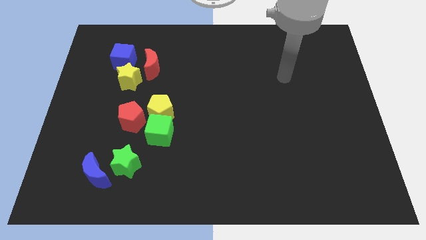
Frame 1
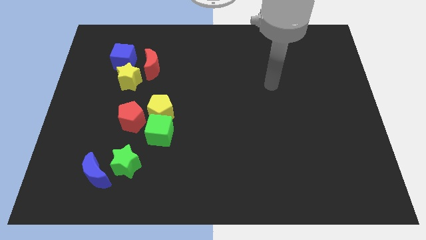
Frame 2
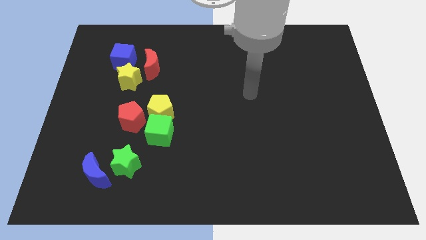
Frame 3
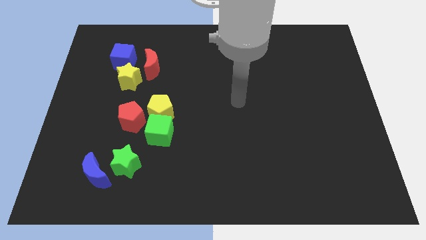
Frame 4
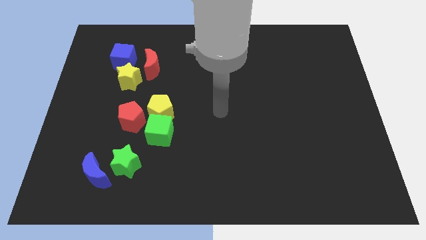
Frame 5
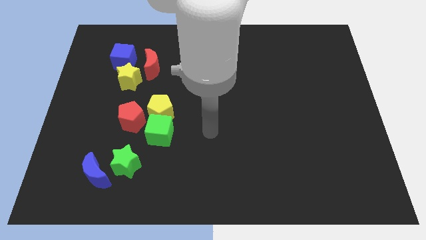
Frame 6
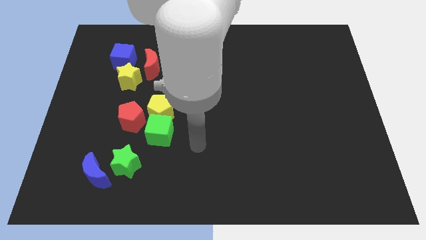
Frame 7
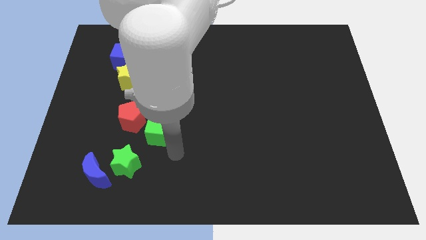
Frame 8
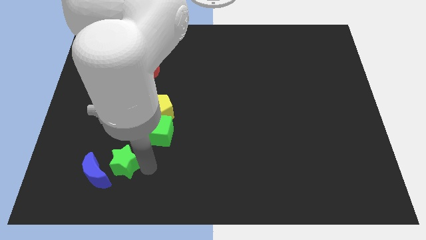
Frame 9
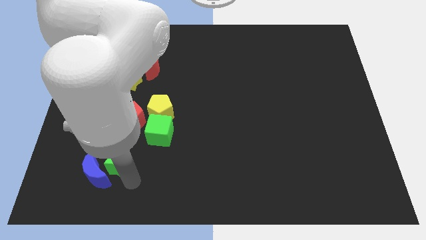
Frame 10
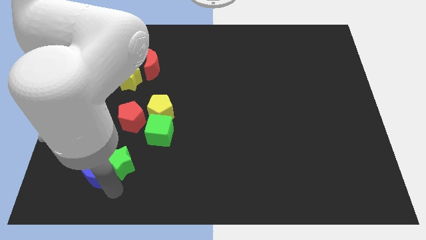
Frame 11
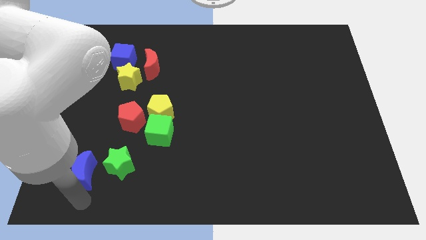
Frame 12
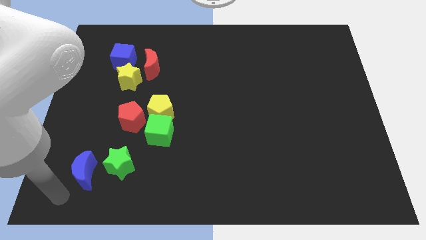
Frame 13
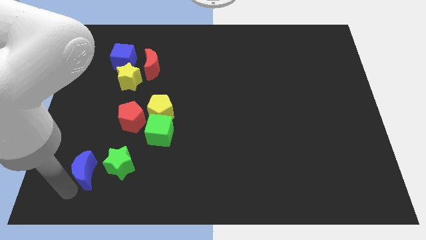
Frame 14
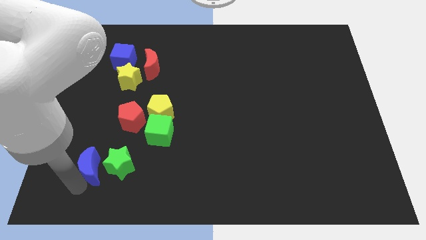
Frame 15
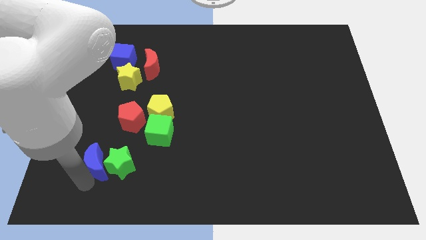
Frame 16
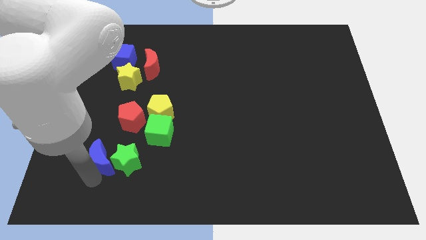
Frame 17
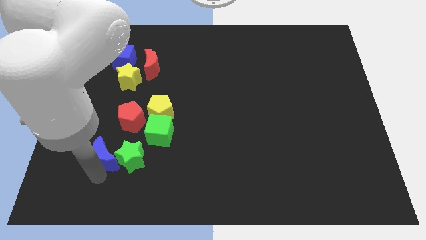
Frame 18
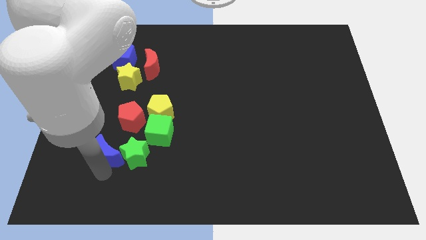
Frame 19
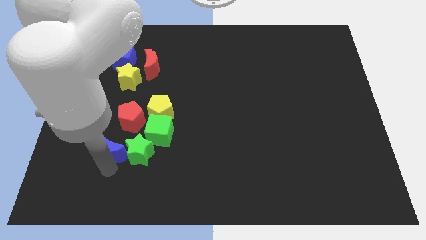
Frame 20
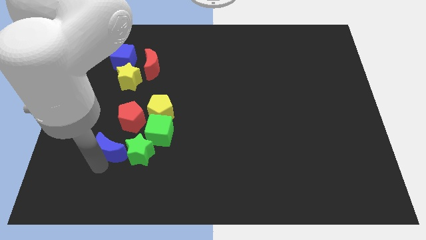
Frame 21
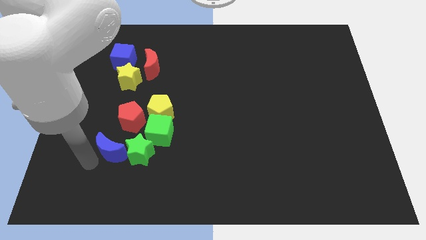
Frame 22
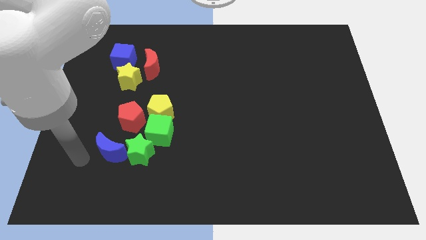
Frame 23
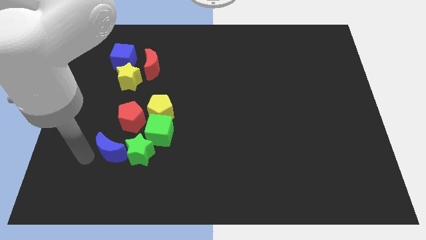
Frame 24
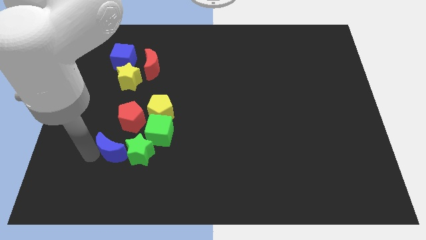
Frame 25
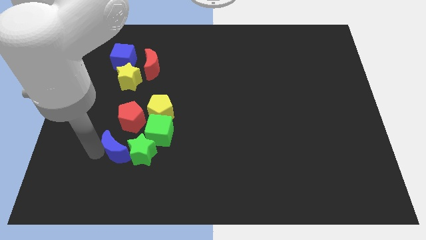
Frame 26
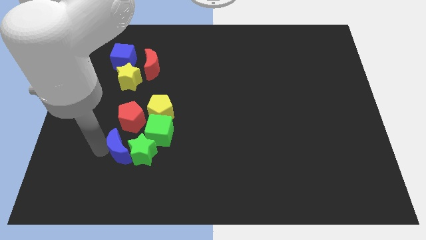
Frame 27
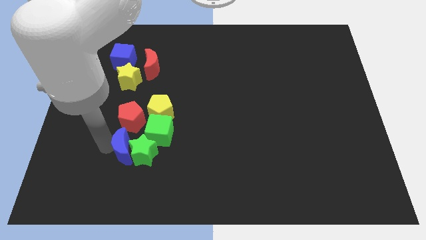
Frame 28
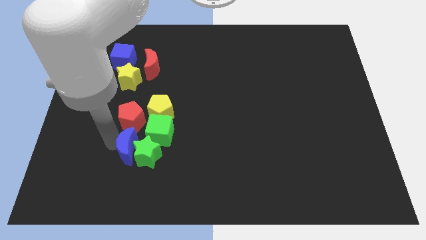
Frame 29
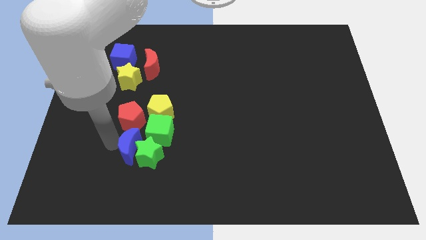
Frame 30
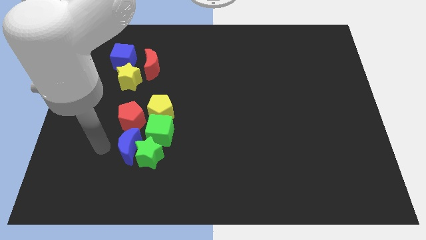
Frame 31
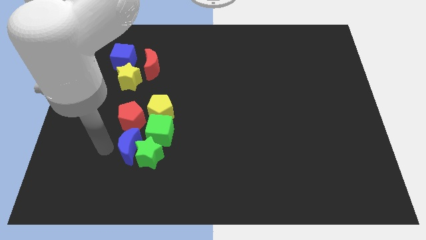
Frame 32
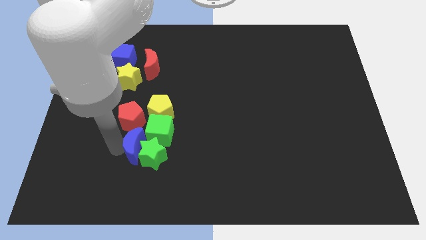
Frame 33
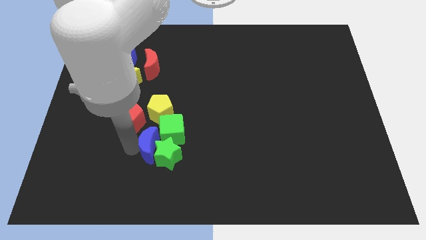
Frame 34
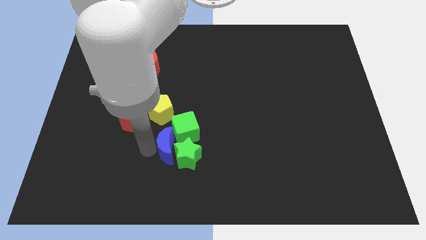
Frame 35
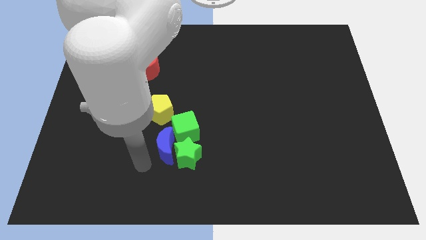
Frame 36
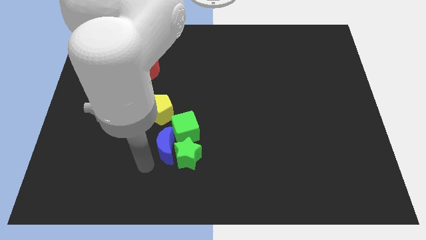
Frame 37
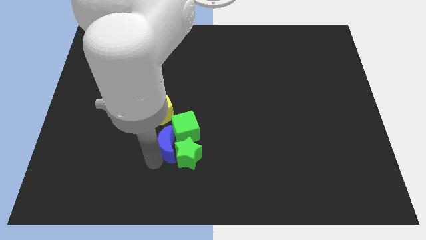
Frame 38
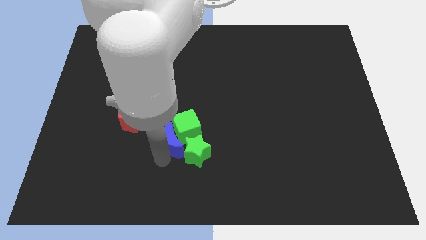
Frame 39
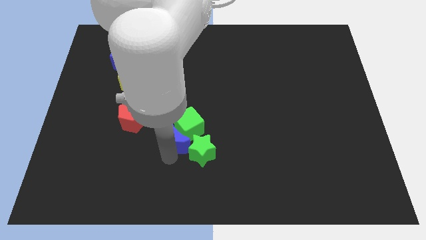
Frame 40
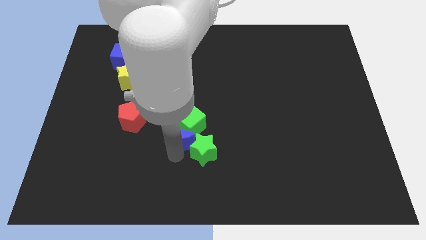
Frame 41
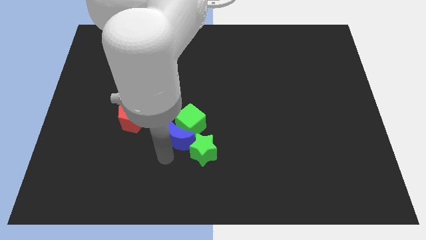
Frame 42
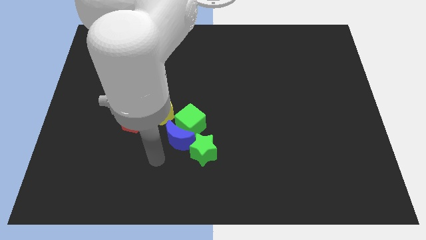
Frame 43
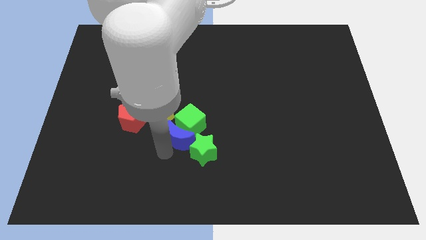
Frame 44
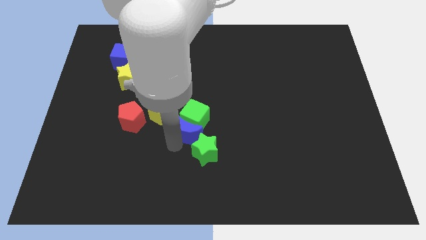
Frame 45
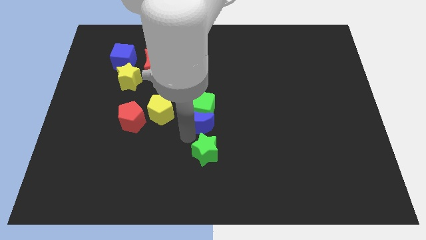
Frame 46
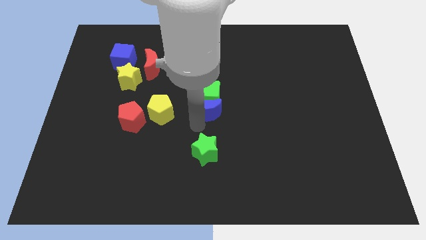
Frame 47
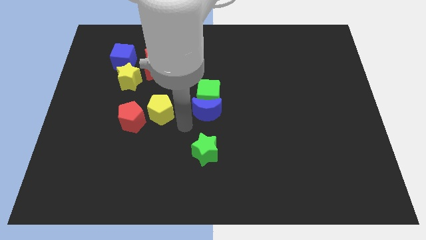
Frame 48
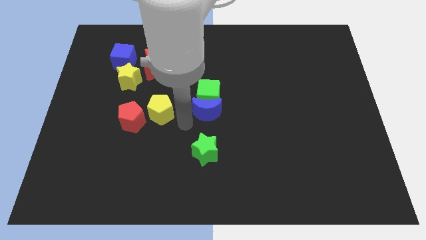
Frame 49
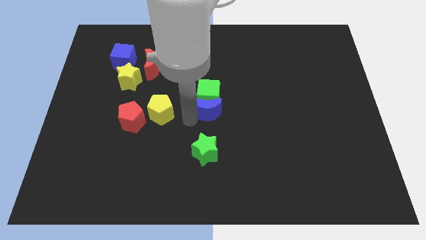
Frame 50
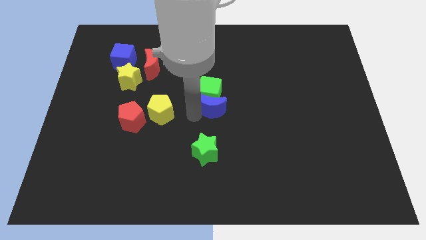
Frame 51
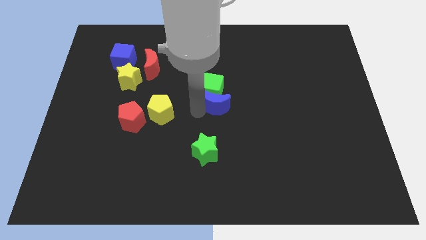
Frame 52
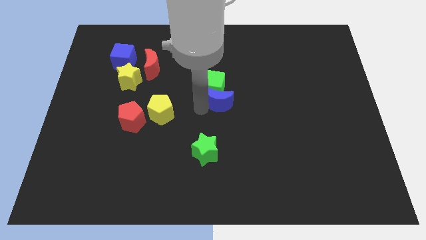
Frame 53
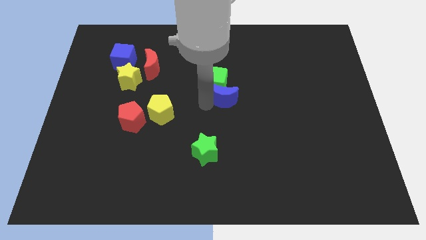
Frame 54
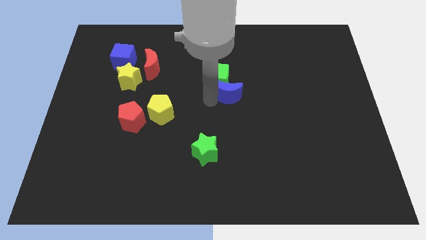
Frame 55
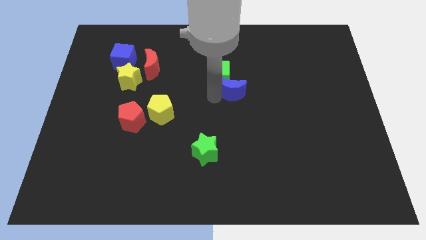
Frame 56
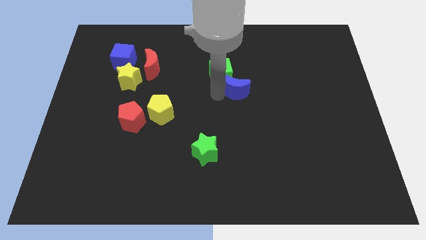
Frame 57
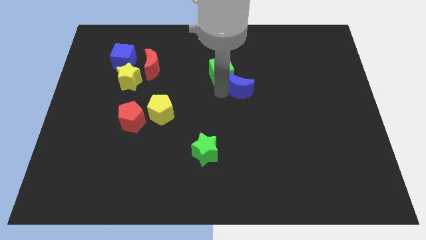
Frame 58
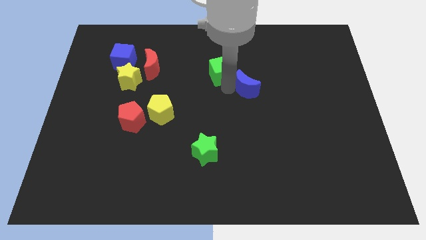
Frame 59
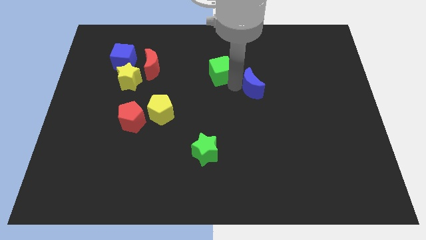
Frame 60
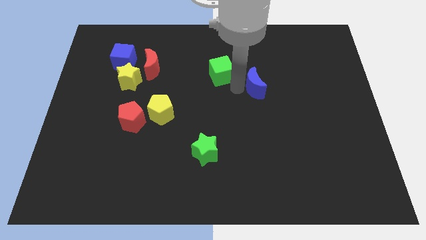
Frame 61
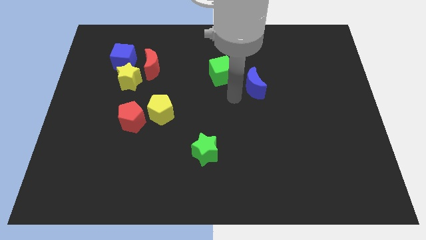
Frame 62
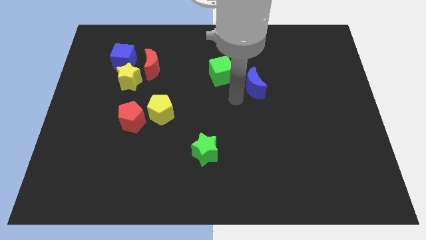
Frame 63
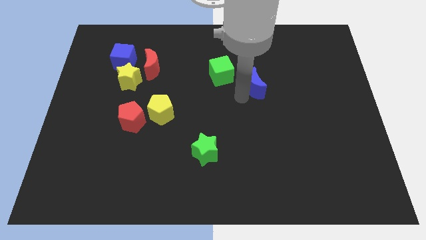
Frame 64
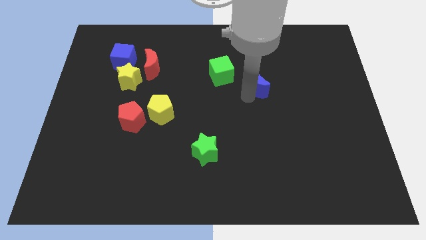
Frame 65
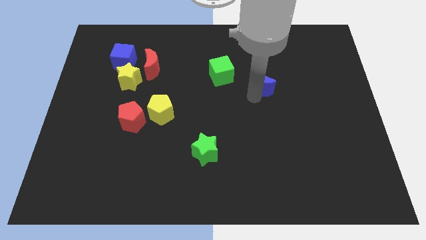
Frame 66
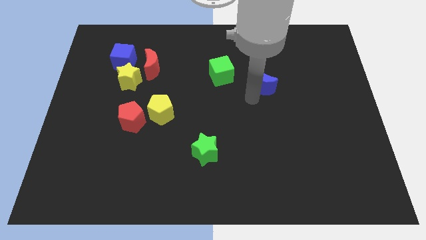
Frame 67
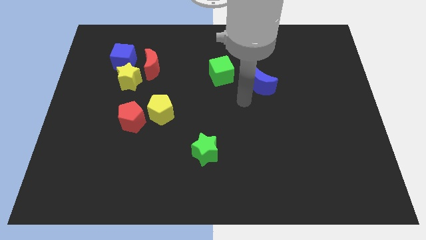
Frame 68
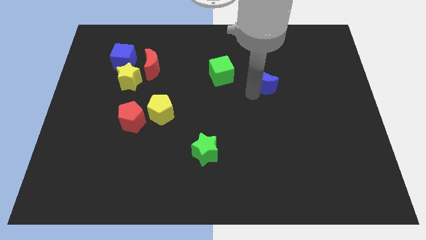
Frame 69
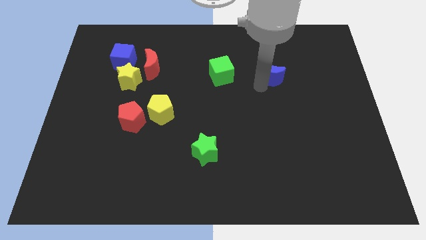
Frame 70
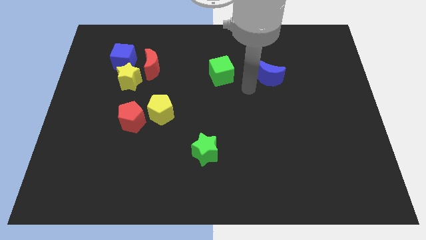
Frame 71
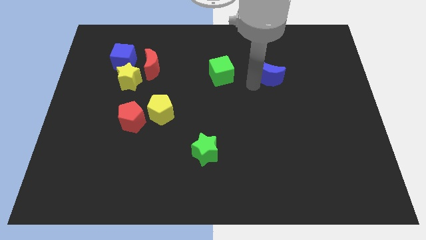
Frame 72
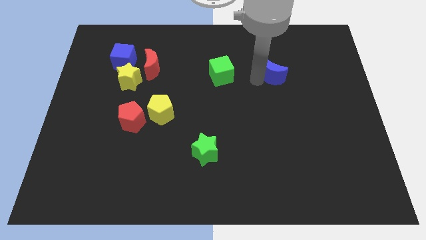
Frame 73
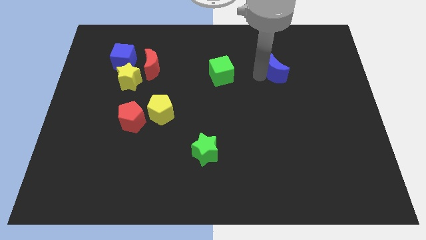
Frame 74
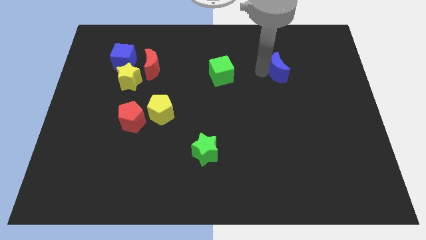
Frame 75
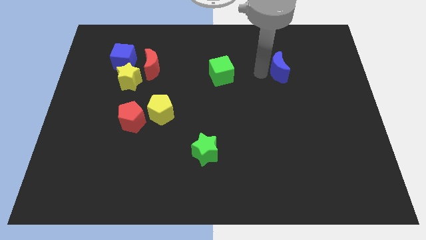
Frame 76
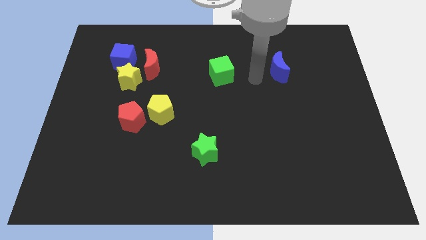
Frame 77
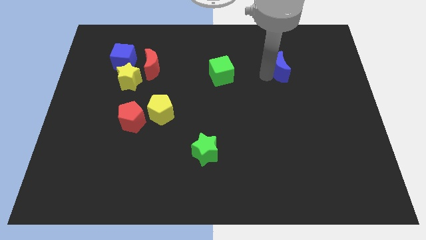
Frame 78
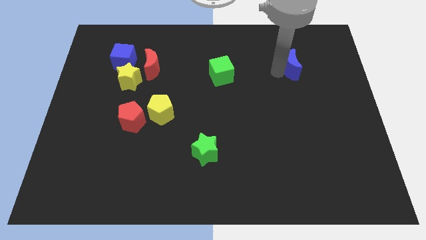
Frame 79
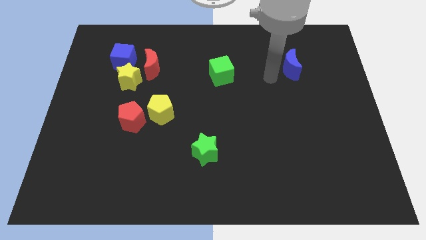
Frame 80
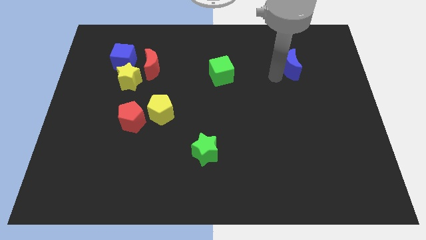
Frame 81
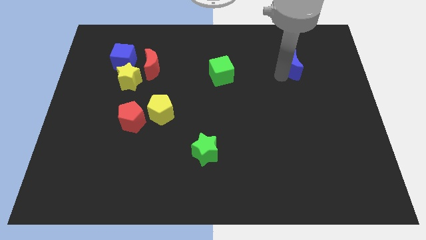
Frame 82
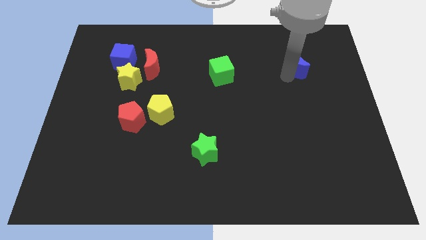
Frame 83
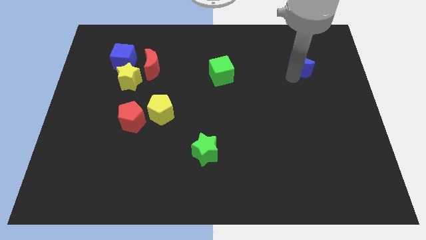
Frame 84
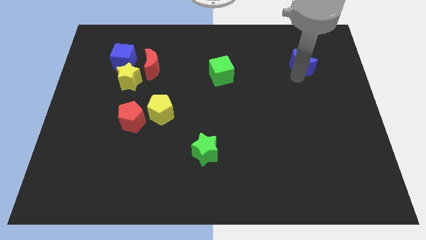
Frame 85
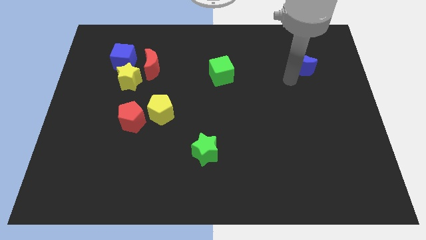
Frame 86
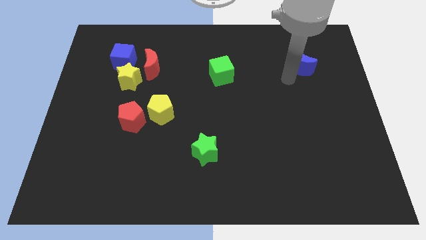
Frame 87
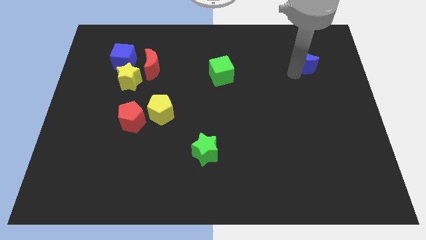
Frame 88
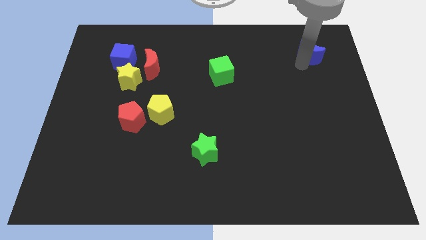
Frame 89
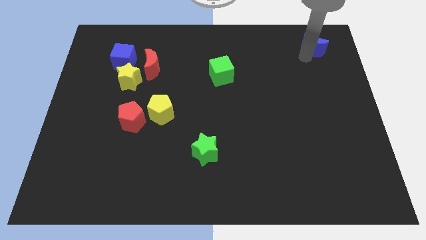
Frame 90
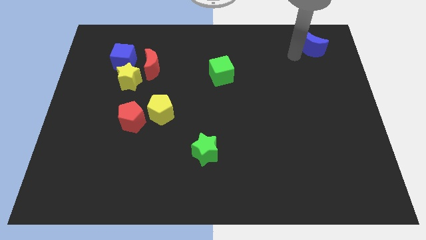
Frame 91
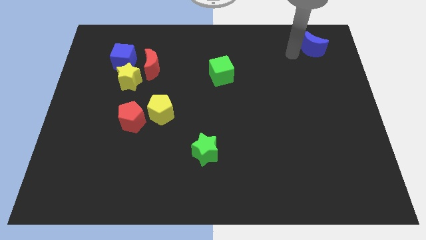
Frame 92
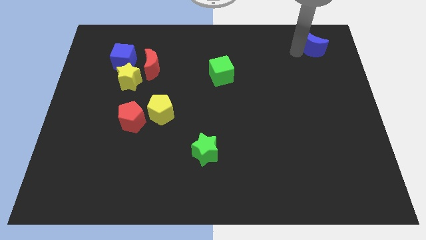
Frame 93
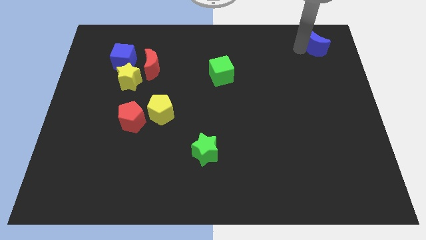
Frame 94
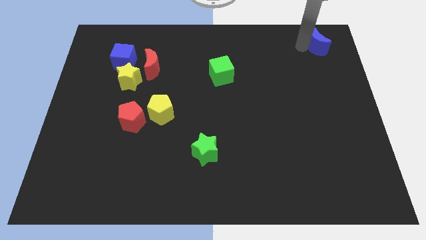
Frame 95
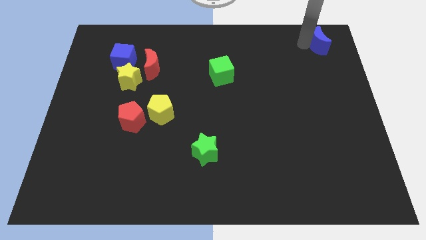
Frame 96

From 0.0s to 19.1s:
put the blue moon to the top right
